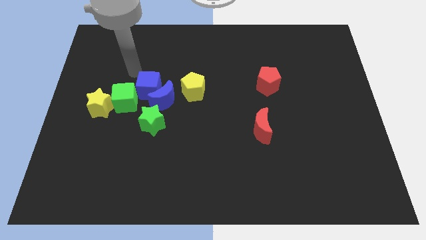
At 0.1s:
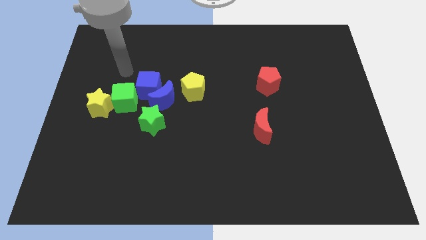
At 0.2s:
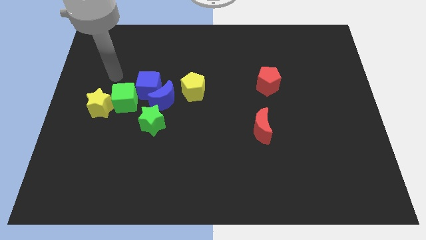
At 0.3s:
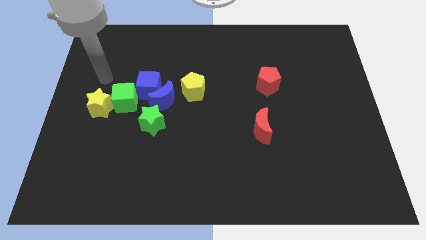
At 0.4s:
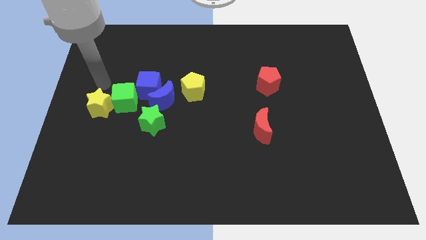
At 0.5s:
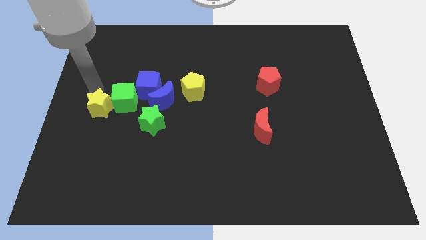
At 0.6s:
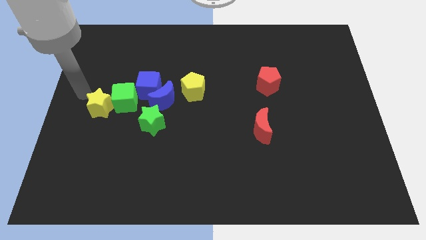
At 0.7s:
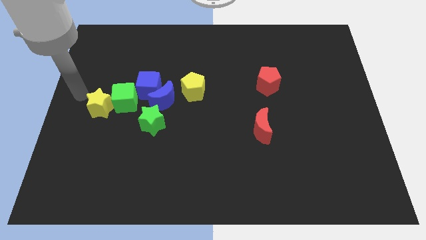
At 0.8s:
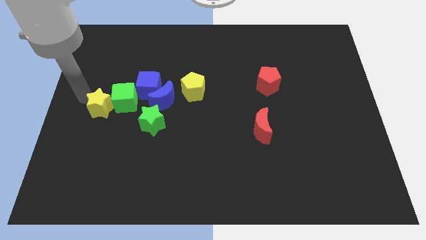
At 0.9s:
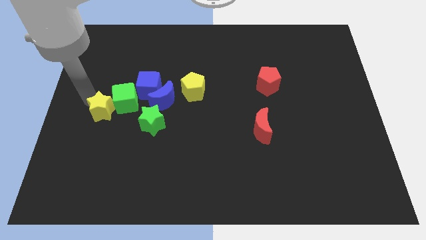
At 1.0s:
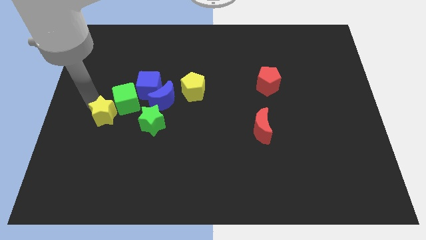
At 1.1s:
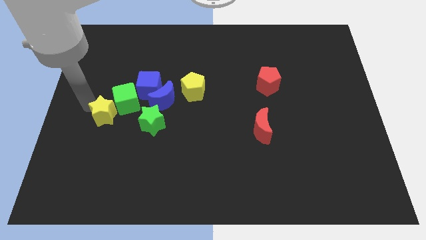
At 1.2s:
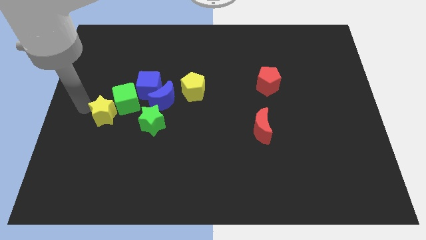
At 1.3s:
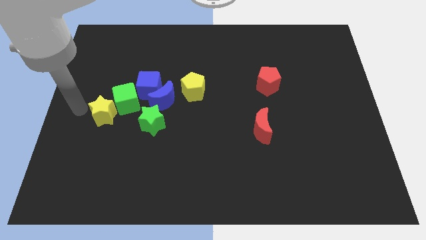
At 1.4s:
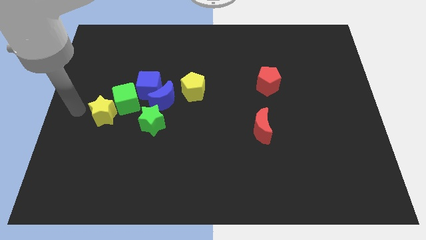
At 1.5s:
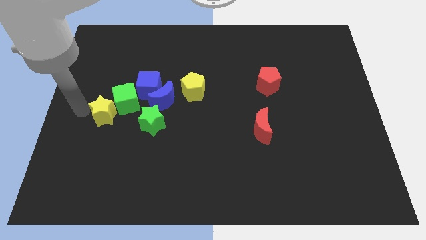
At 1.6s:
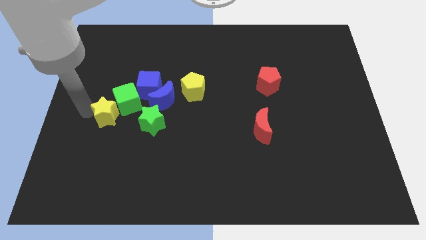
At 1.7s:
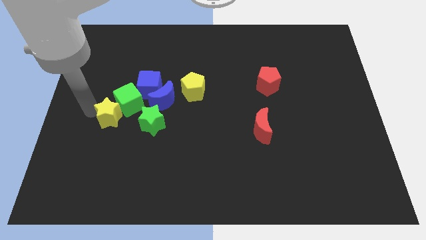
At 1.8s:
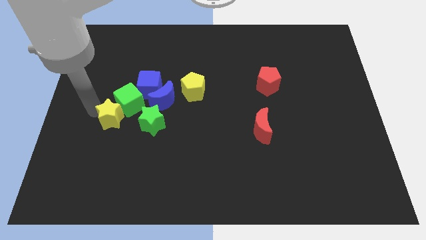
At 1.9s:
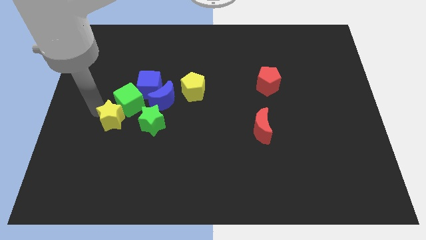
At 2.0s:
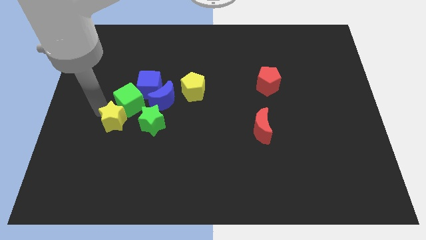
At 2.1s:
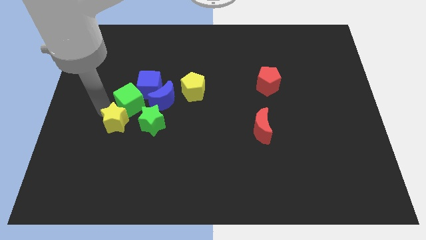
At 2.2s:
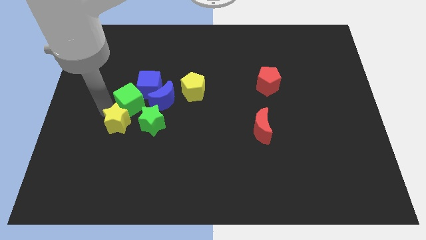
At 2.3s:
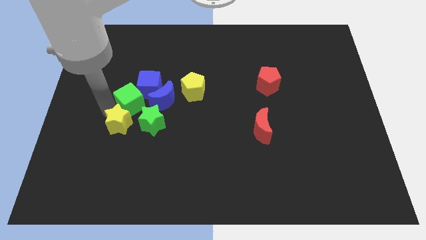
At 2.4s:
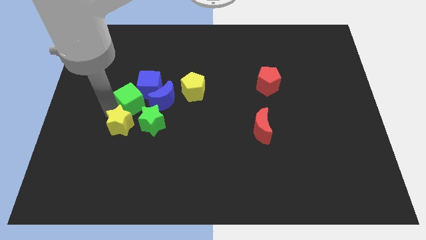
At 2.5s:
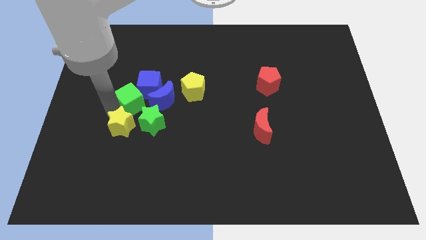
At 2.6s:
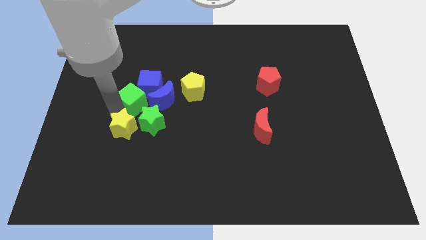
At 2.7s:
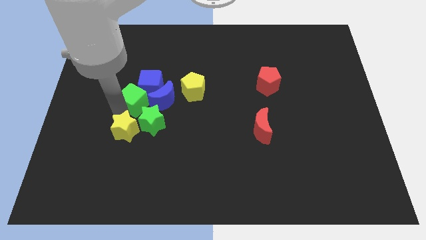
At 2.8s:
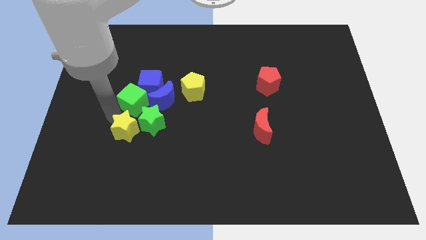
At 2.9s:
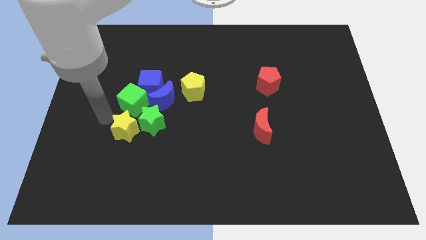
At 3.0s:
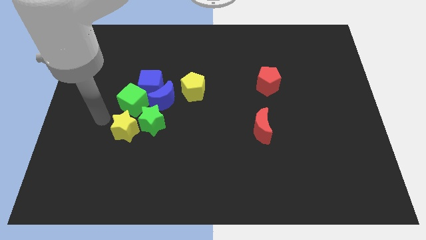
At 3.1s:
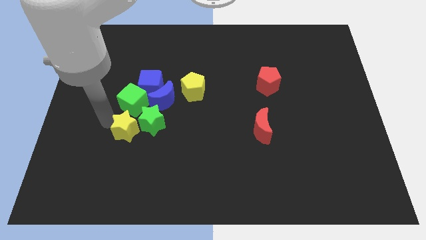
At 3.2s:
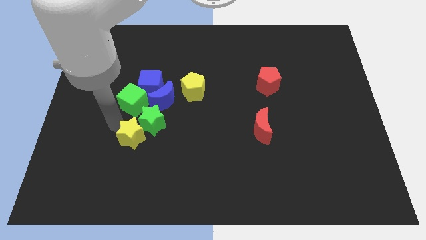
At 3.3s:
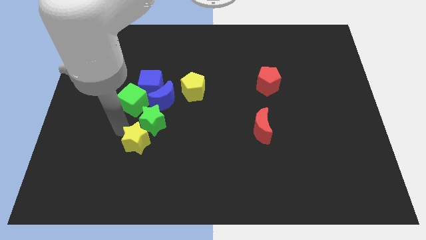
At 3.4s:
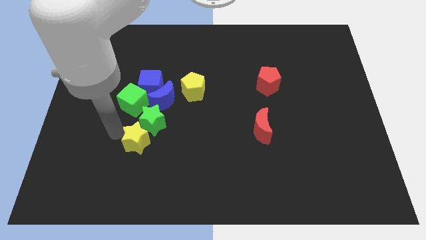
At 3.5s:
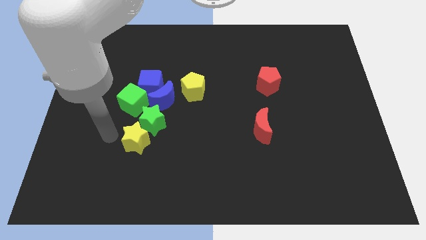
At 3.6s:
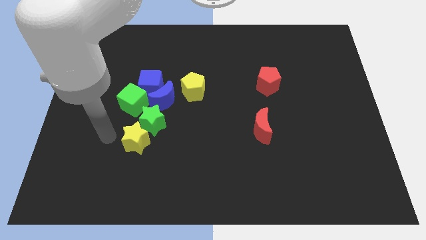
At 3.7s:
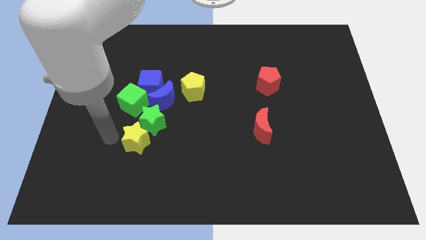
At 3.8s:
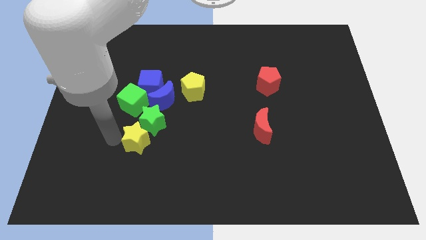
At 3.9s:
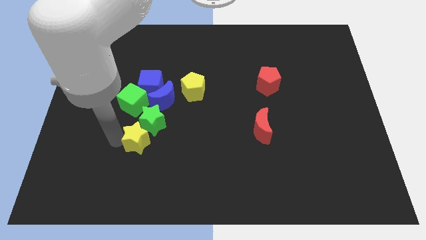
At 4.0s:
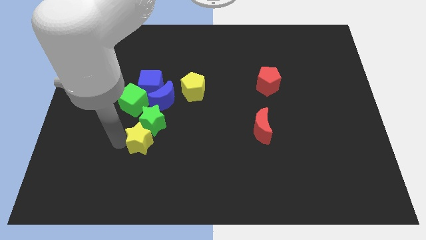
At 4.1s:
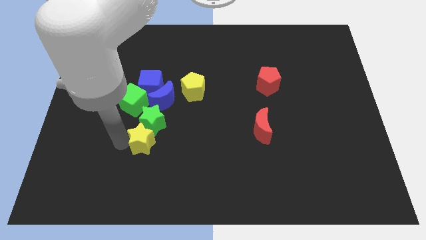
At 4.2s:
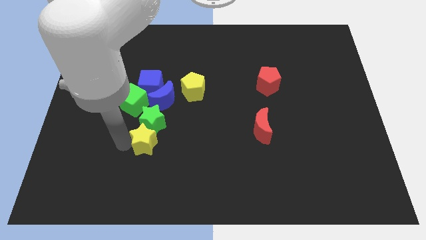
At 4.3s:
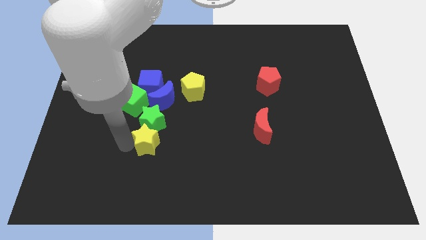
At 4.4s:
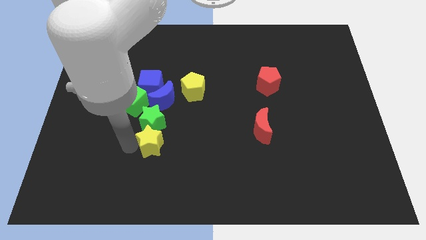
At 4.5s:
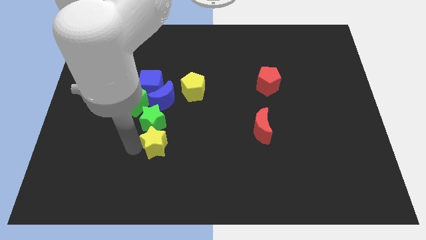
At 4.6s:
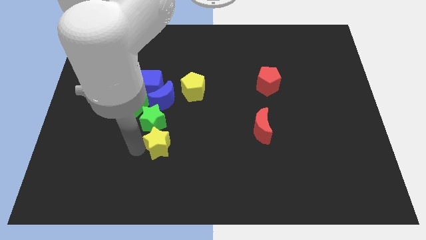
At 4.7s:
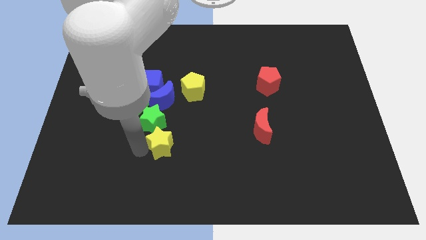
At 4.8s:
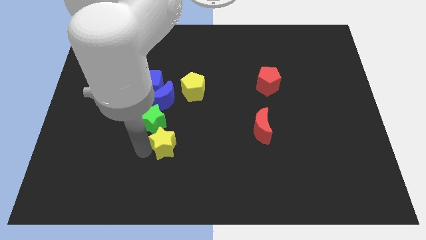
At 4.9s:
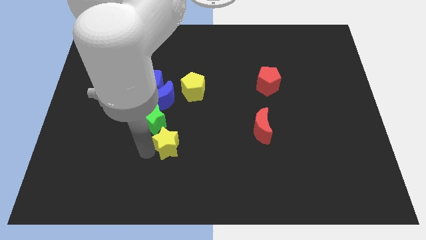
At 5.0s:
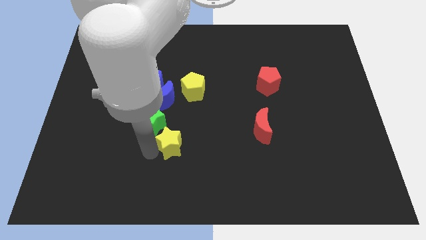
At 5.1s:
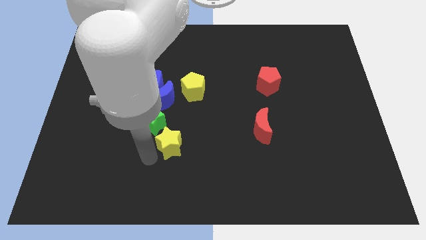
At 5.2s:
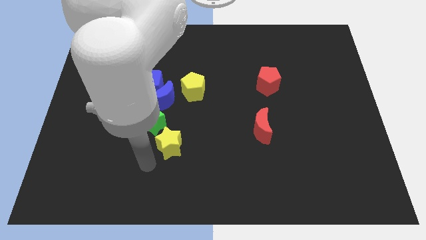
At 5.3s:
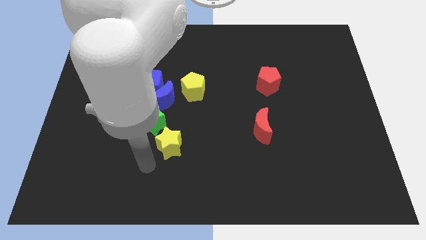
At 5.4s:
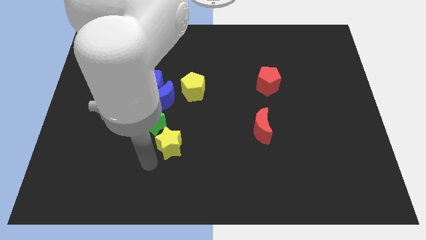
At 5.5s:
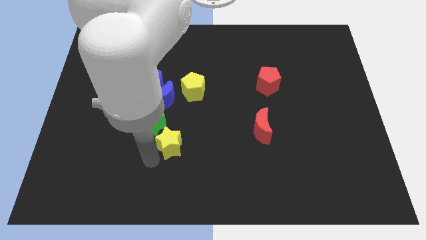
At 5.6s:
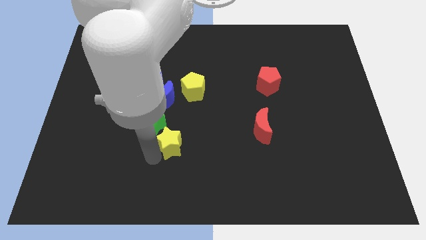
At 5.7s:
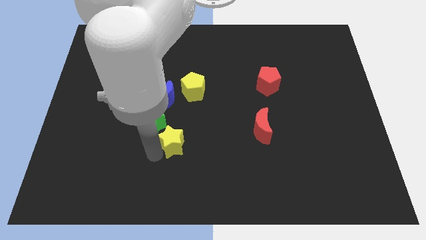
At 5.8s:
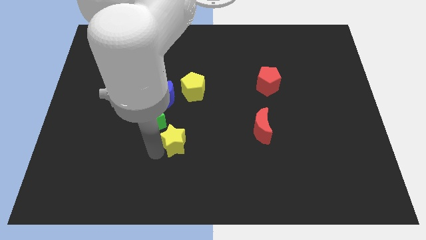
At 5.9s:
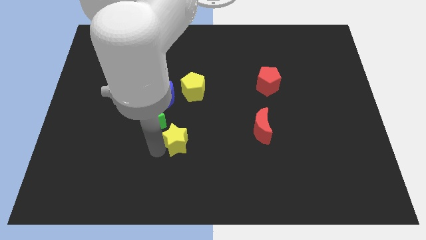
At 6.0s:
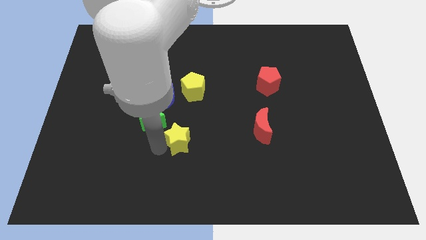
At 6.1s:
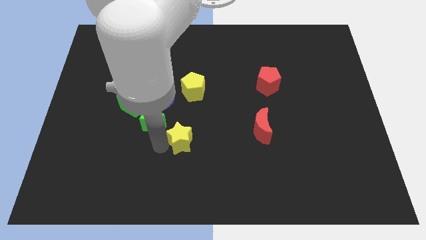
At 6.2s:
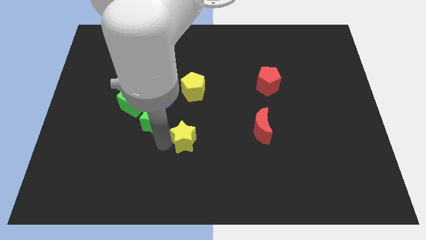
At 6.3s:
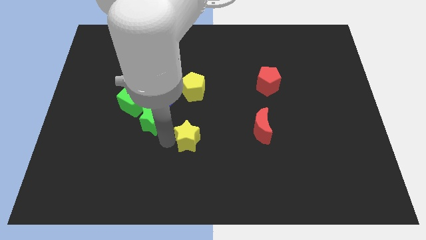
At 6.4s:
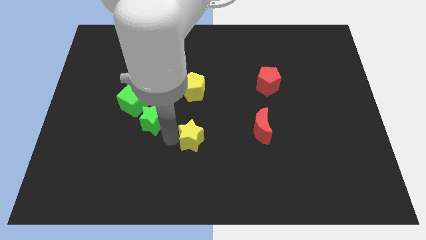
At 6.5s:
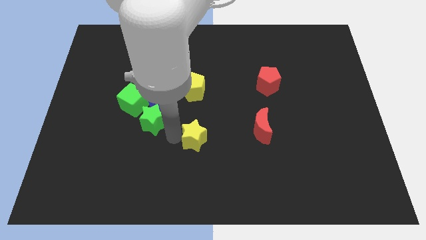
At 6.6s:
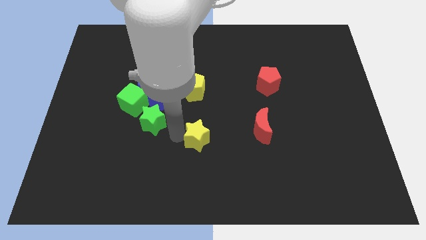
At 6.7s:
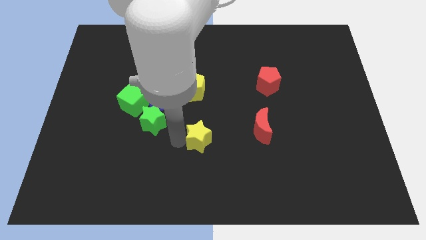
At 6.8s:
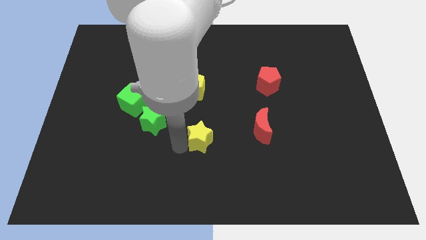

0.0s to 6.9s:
slide the yellow star to the right

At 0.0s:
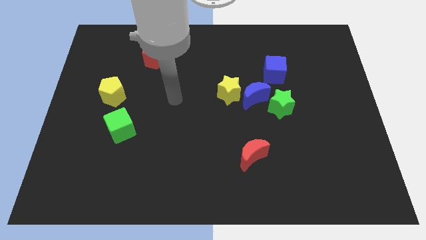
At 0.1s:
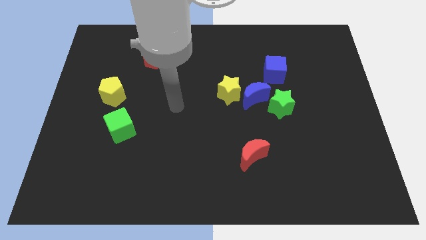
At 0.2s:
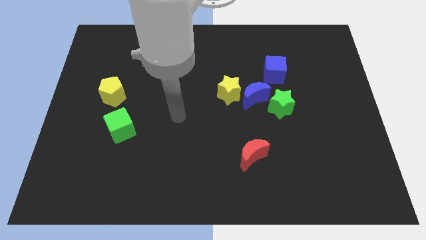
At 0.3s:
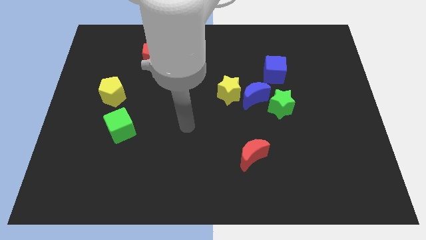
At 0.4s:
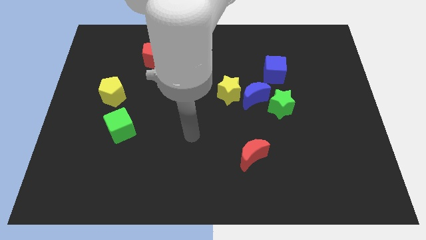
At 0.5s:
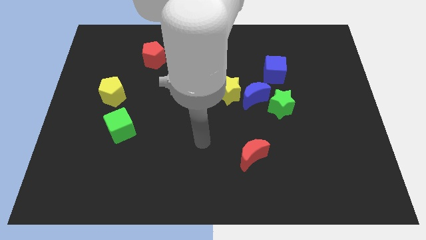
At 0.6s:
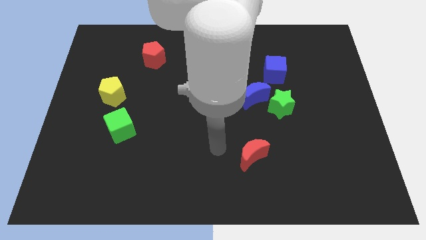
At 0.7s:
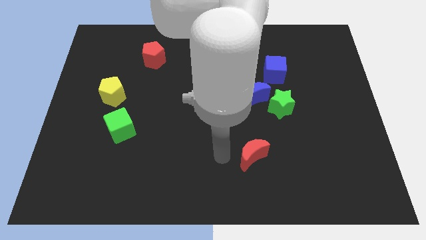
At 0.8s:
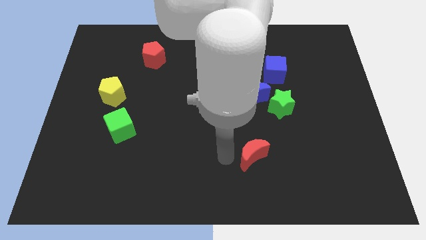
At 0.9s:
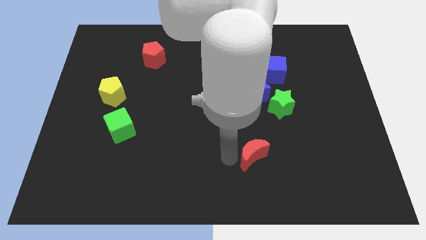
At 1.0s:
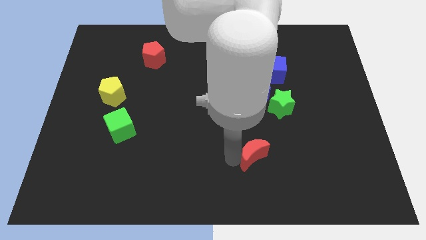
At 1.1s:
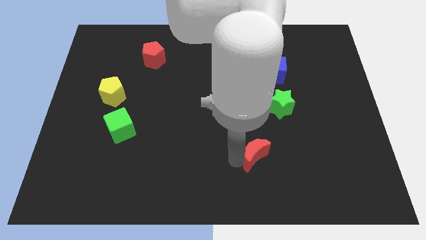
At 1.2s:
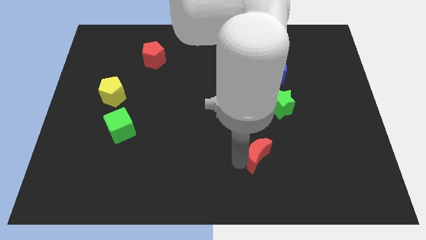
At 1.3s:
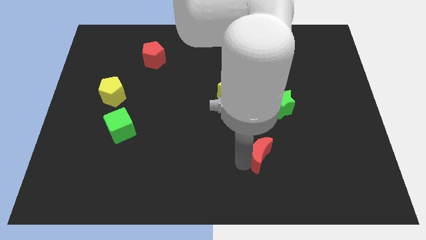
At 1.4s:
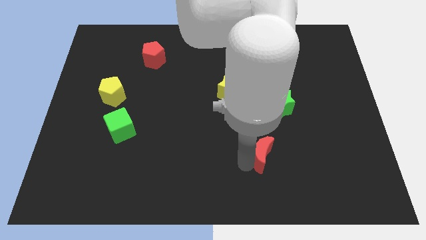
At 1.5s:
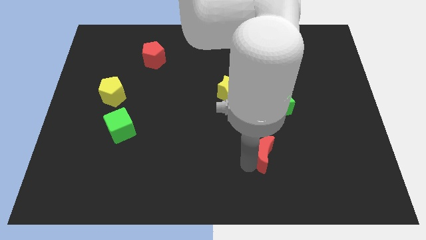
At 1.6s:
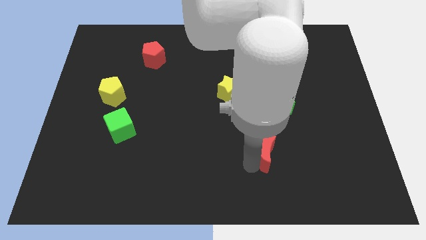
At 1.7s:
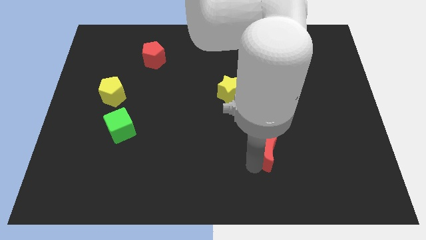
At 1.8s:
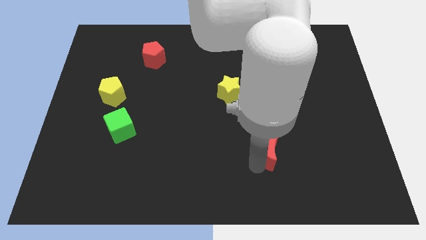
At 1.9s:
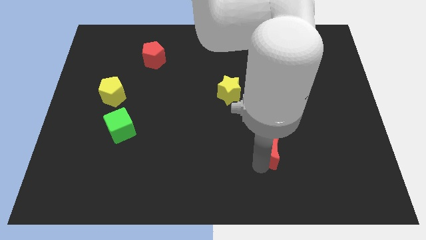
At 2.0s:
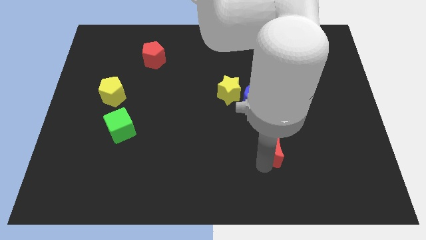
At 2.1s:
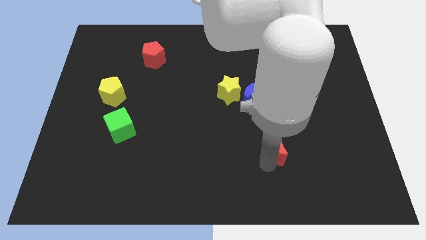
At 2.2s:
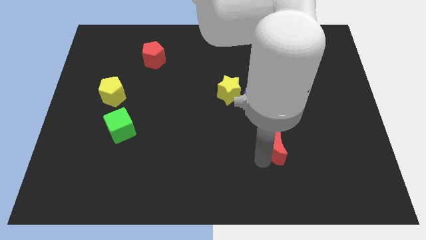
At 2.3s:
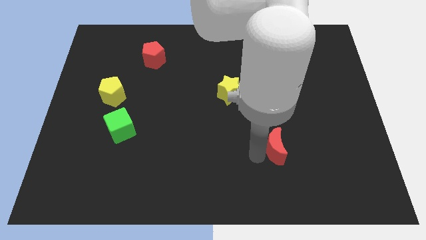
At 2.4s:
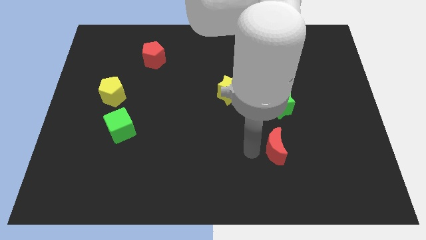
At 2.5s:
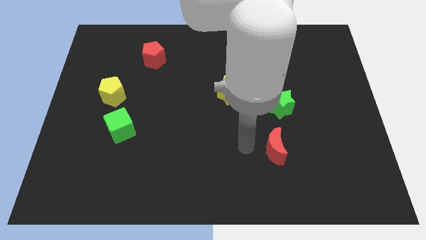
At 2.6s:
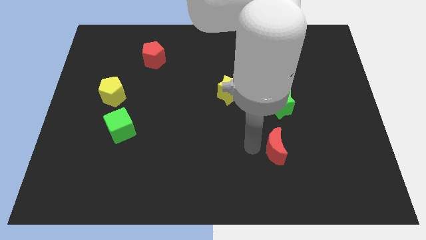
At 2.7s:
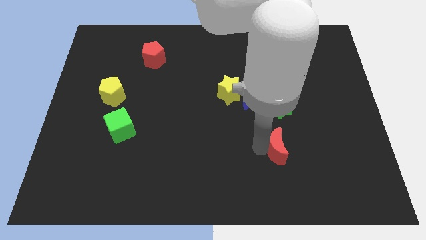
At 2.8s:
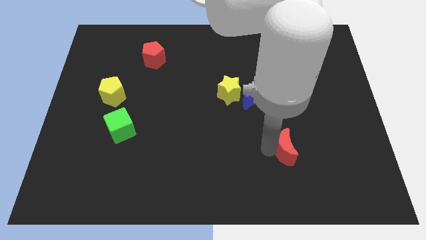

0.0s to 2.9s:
move the red moon right somewhat
